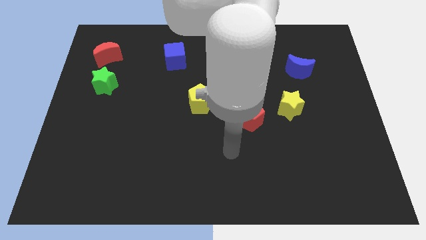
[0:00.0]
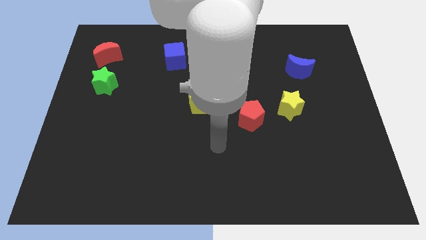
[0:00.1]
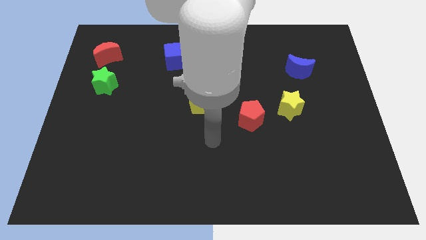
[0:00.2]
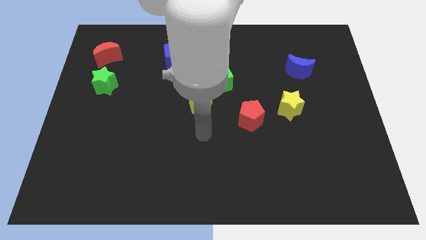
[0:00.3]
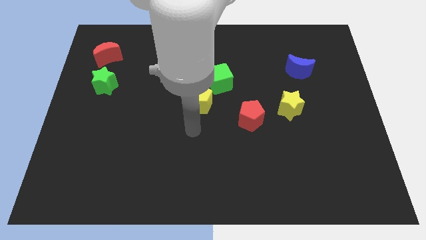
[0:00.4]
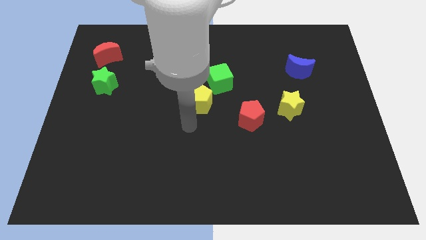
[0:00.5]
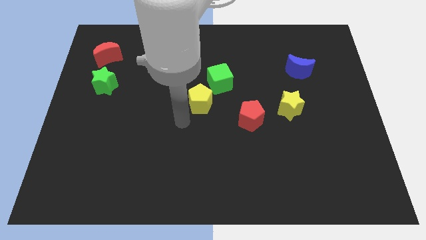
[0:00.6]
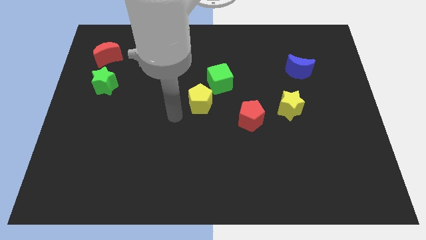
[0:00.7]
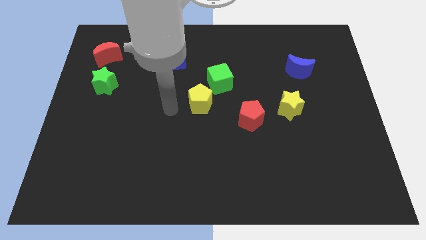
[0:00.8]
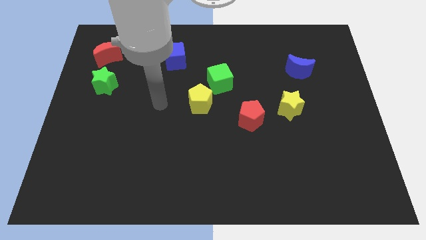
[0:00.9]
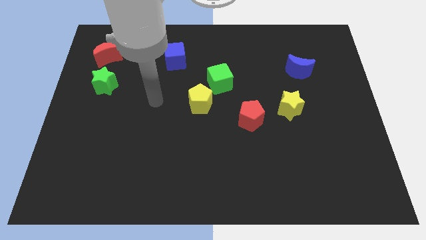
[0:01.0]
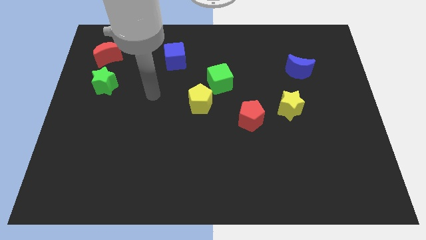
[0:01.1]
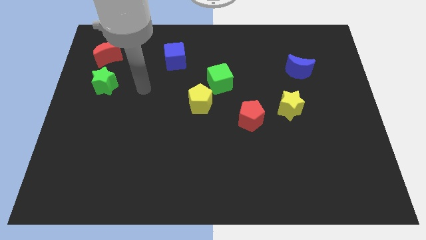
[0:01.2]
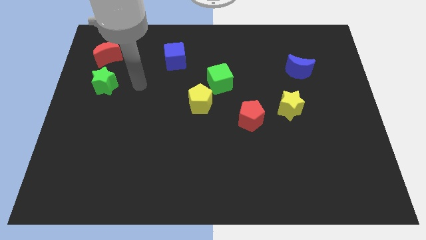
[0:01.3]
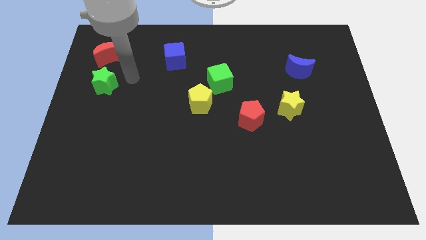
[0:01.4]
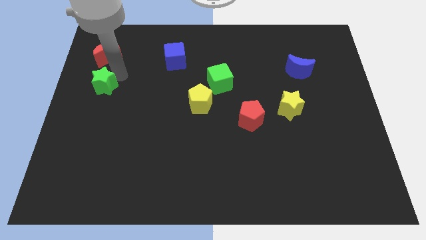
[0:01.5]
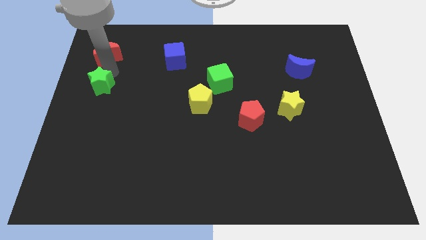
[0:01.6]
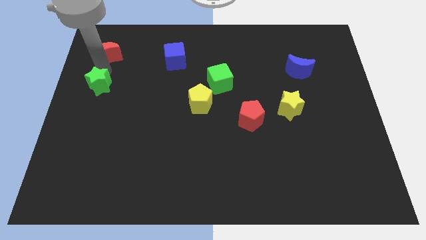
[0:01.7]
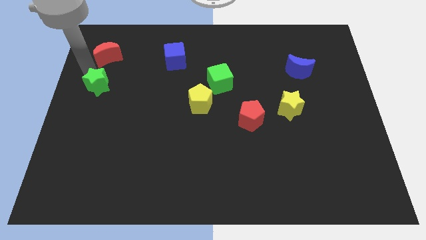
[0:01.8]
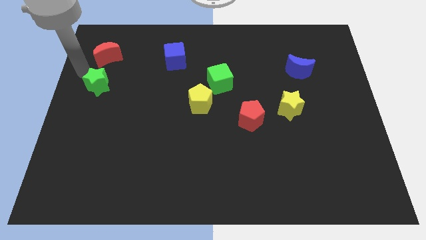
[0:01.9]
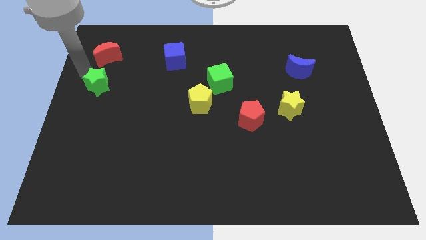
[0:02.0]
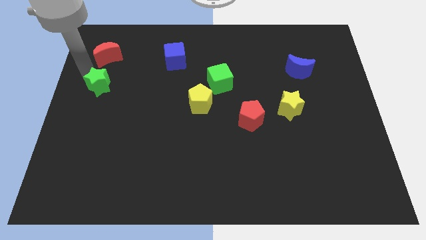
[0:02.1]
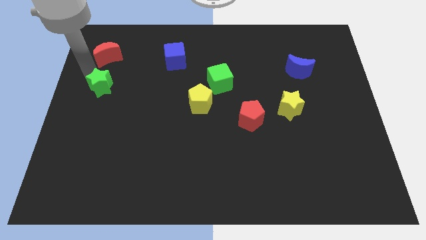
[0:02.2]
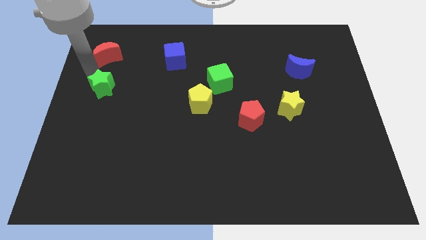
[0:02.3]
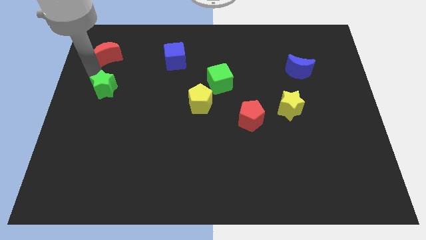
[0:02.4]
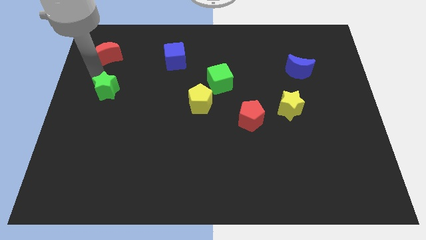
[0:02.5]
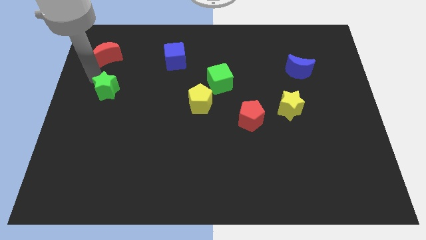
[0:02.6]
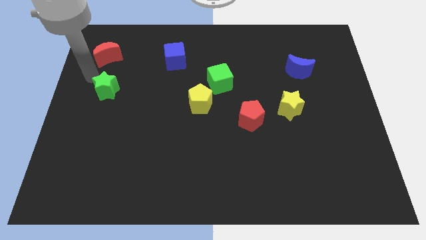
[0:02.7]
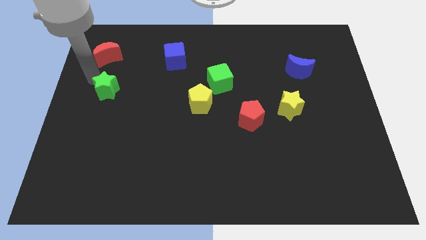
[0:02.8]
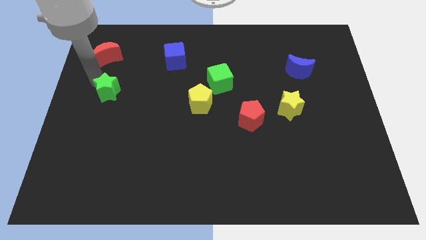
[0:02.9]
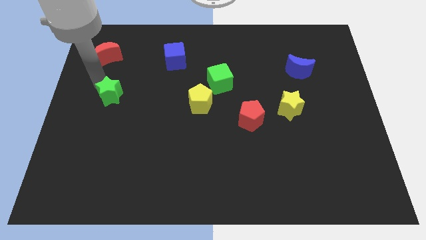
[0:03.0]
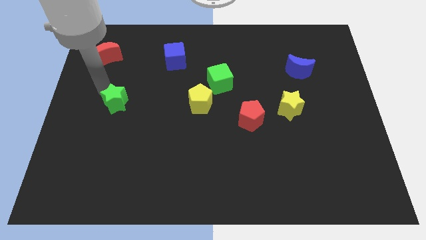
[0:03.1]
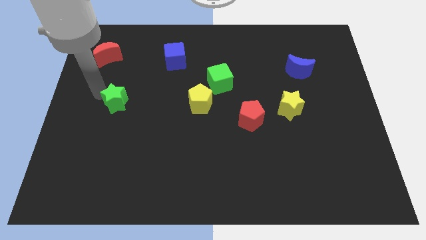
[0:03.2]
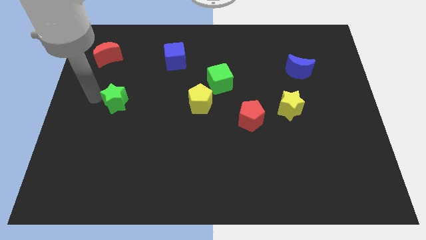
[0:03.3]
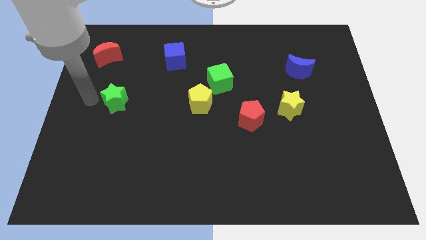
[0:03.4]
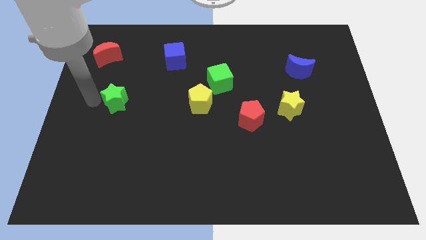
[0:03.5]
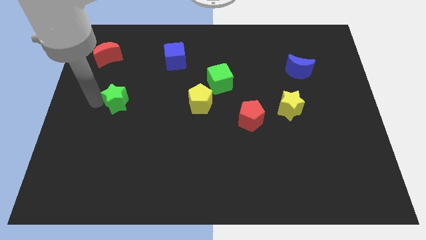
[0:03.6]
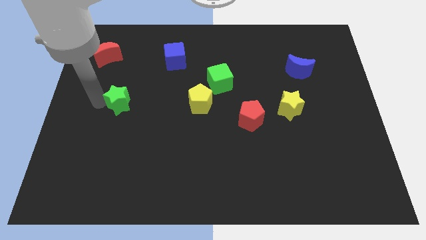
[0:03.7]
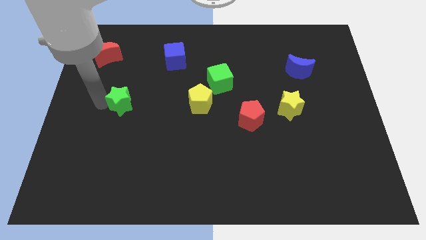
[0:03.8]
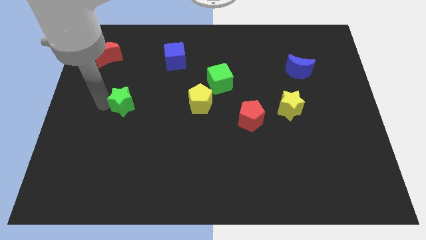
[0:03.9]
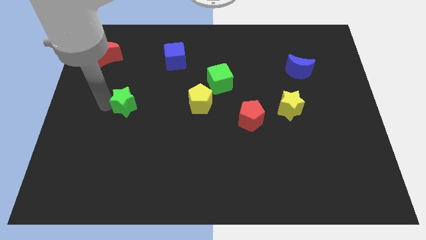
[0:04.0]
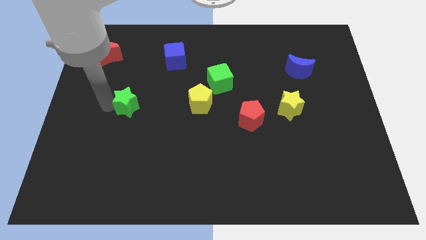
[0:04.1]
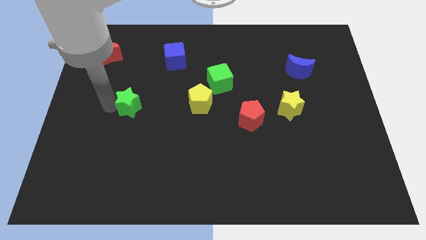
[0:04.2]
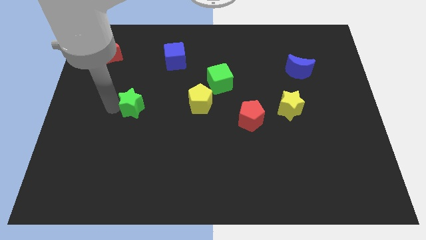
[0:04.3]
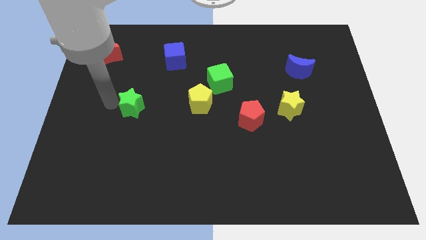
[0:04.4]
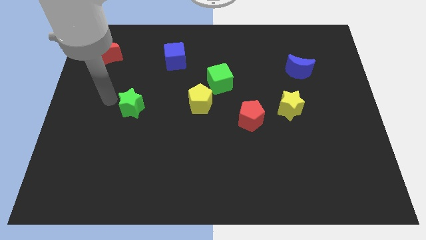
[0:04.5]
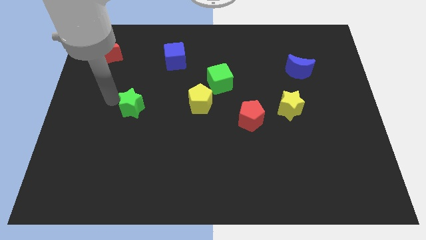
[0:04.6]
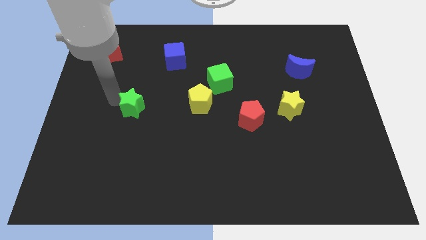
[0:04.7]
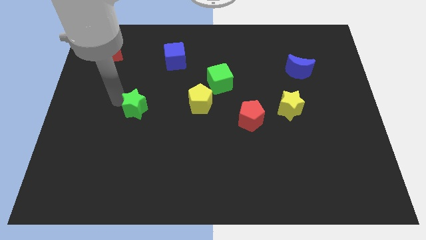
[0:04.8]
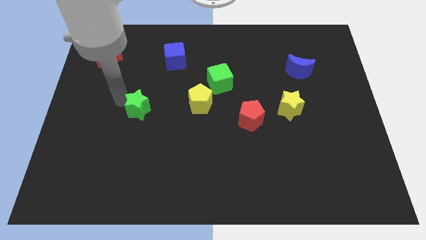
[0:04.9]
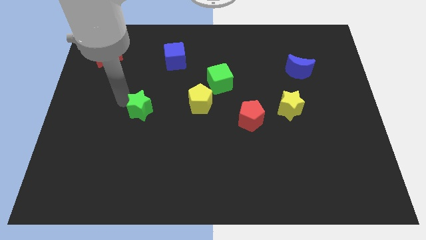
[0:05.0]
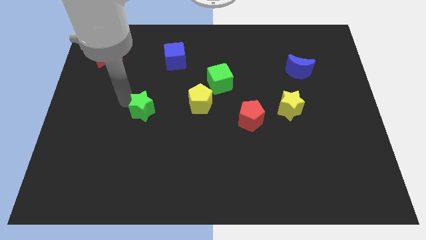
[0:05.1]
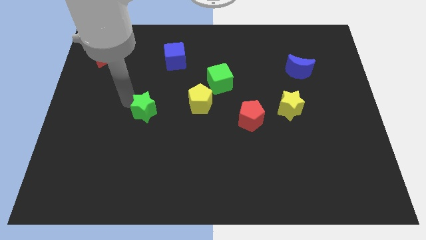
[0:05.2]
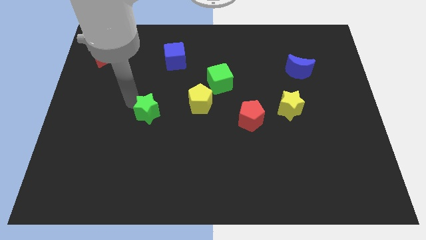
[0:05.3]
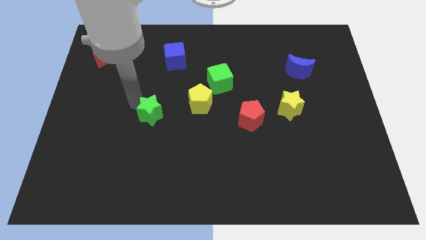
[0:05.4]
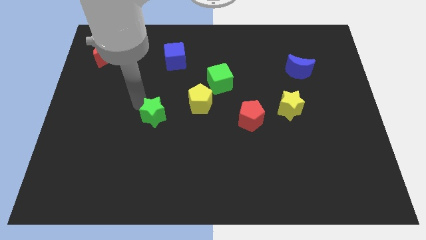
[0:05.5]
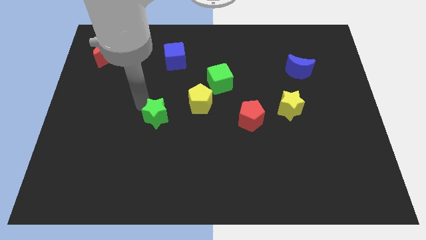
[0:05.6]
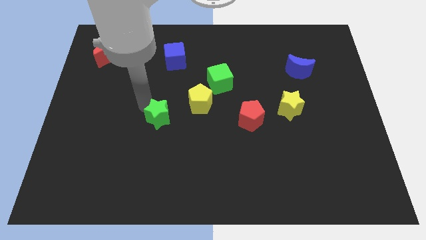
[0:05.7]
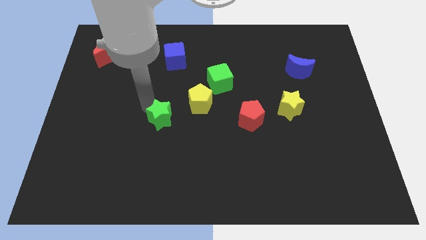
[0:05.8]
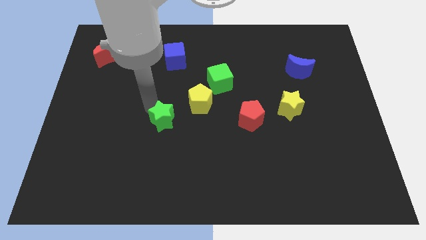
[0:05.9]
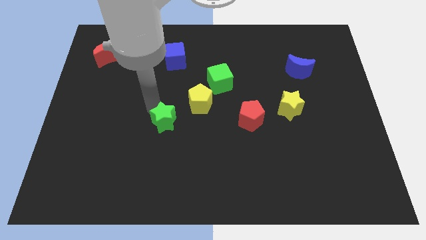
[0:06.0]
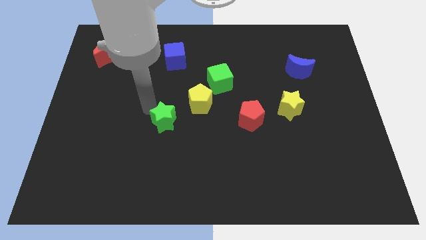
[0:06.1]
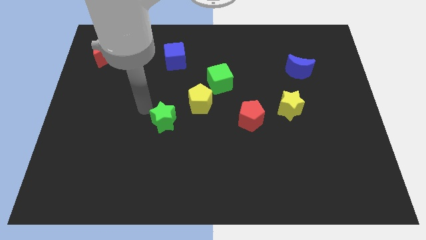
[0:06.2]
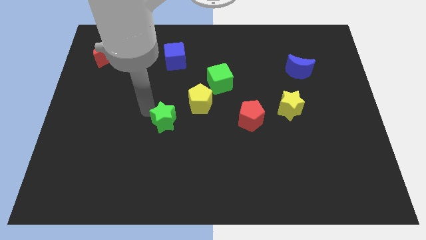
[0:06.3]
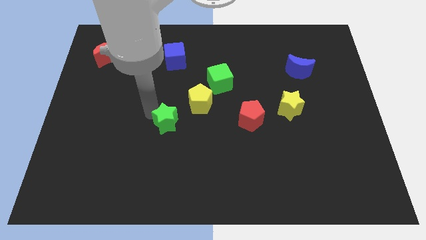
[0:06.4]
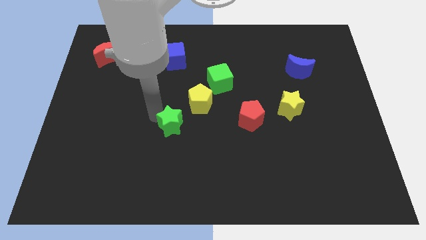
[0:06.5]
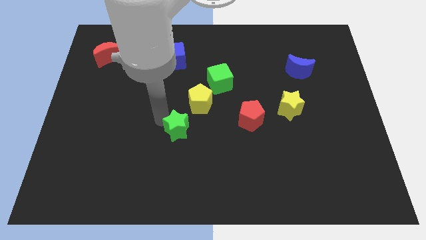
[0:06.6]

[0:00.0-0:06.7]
move the green star to the bottom of the yellow pentagon

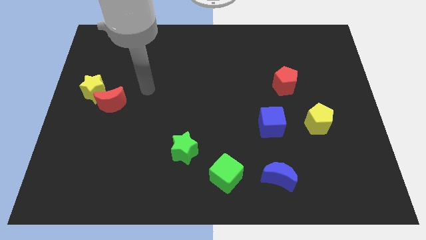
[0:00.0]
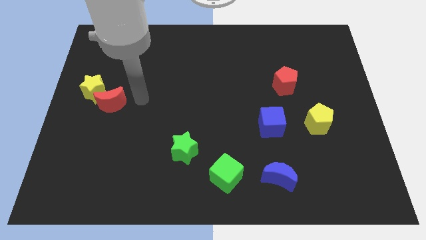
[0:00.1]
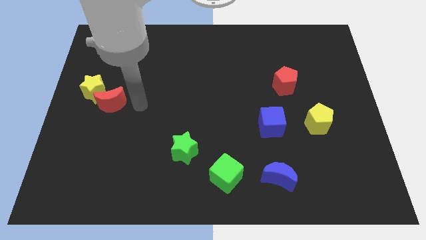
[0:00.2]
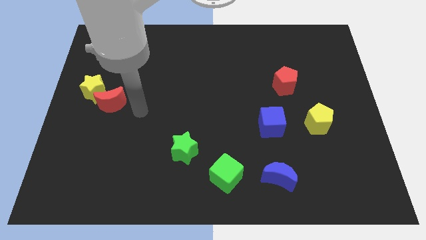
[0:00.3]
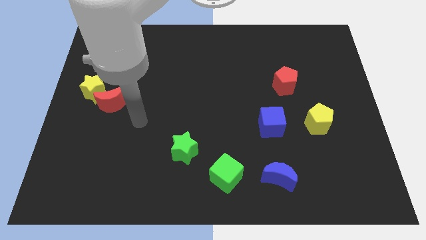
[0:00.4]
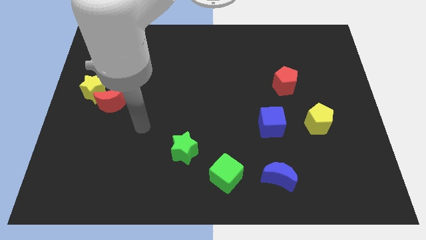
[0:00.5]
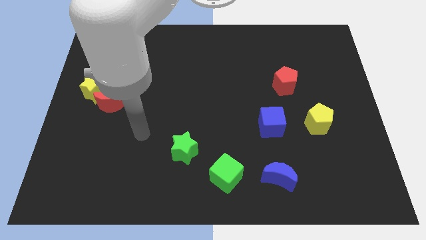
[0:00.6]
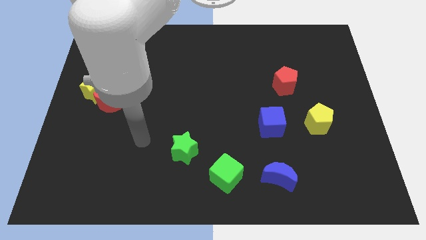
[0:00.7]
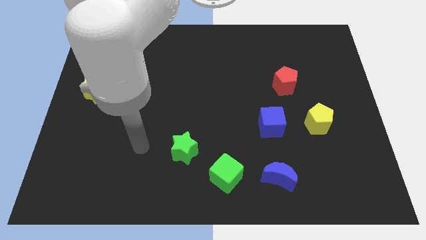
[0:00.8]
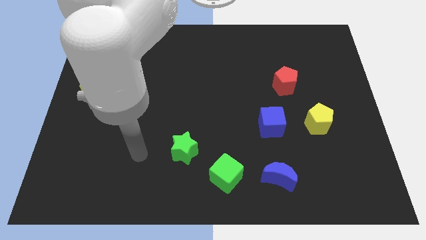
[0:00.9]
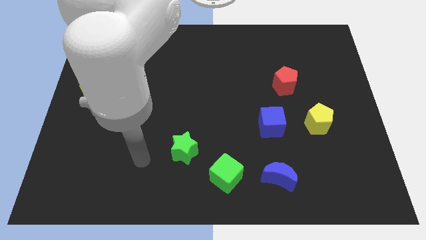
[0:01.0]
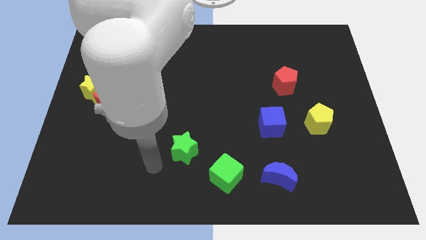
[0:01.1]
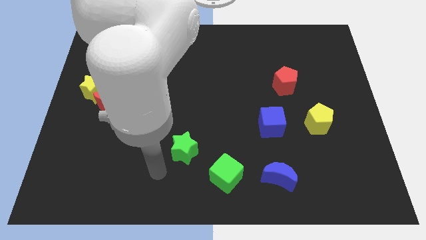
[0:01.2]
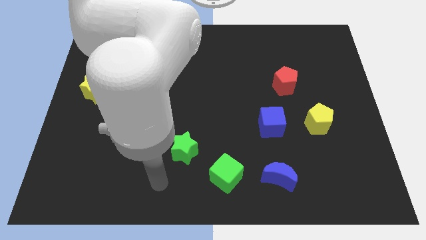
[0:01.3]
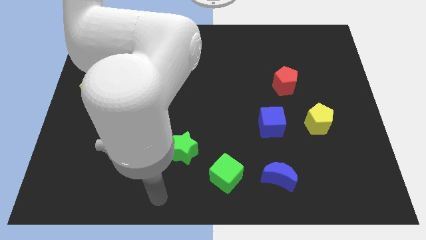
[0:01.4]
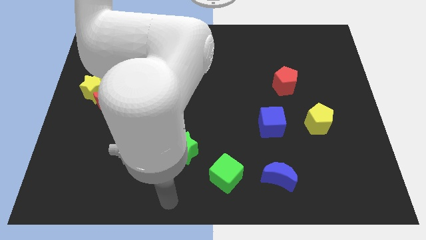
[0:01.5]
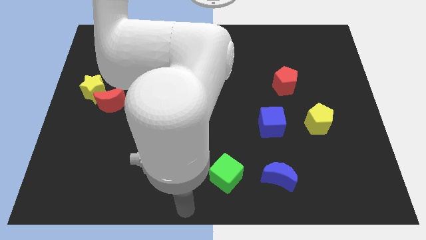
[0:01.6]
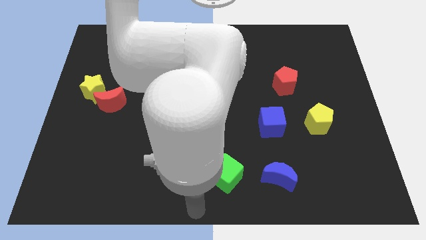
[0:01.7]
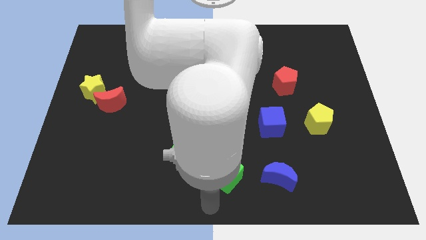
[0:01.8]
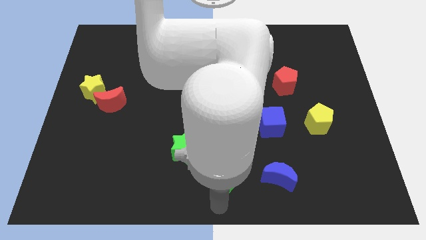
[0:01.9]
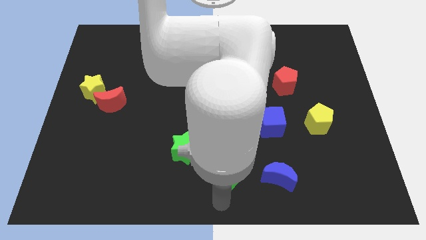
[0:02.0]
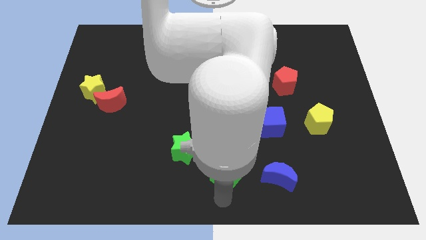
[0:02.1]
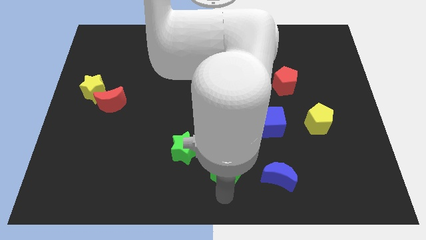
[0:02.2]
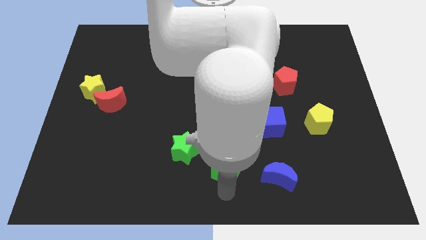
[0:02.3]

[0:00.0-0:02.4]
put the green cube to the right of the green star
